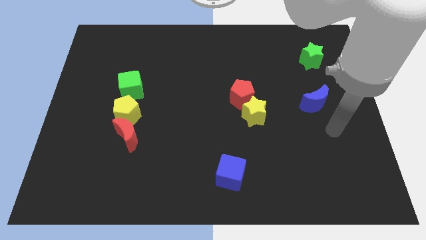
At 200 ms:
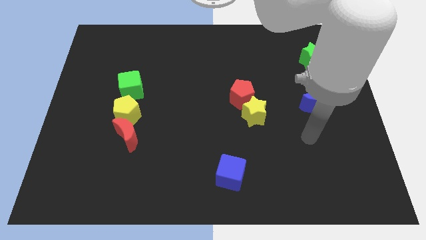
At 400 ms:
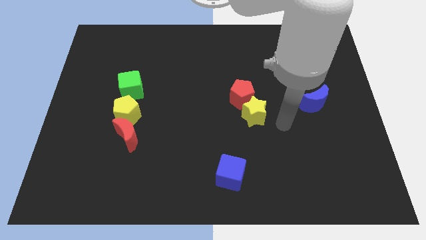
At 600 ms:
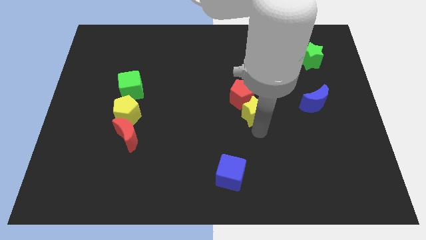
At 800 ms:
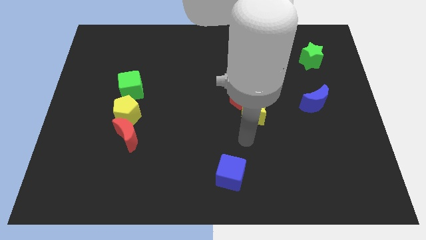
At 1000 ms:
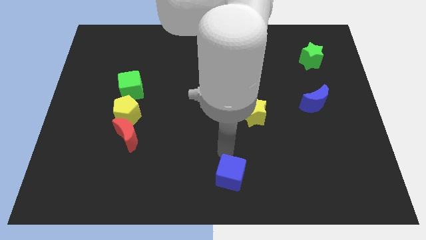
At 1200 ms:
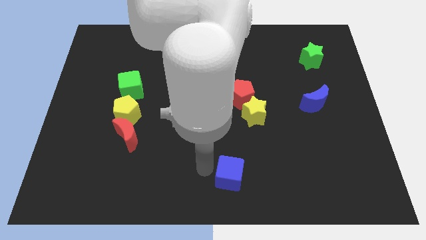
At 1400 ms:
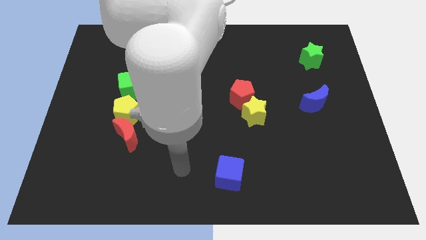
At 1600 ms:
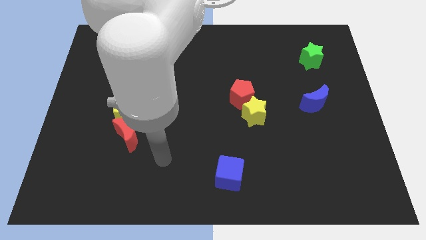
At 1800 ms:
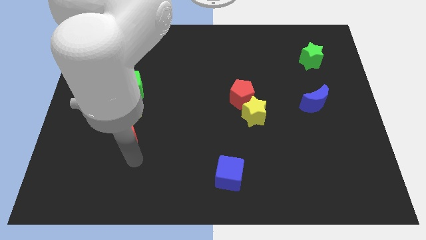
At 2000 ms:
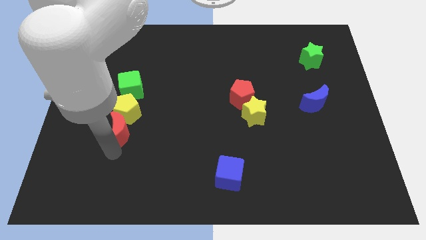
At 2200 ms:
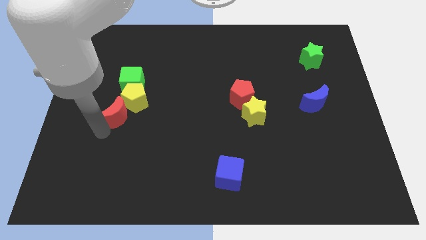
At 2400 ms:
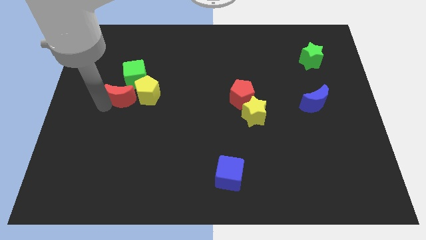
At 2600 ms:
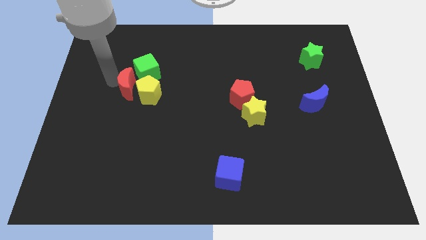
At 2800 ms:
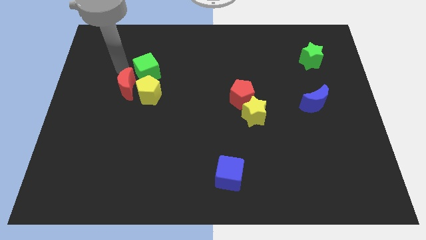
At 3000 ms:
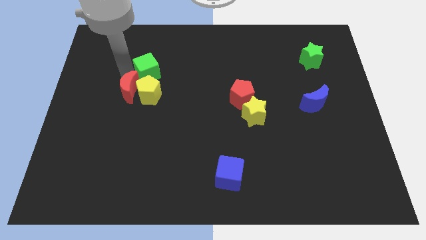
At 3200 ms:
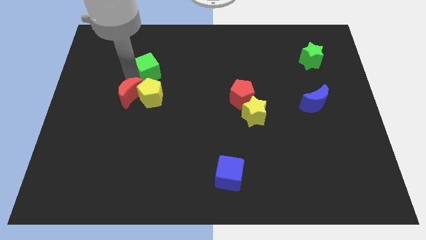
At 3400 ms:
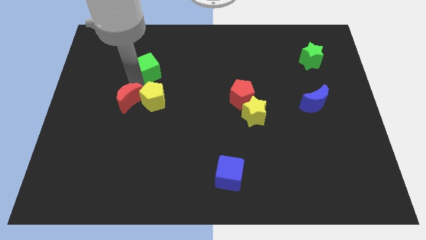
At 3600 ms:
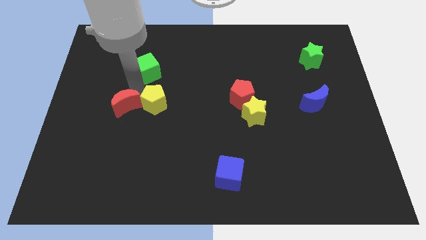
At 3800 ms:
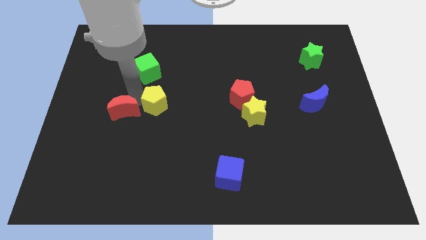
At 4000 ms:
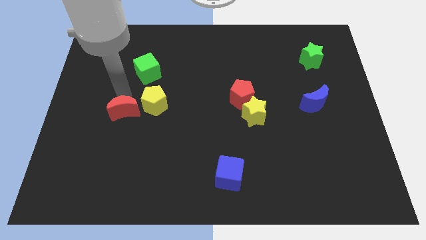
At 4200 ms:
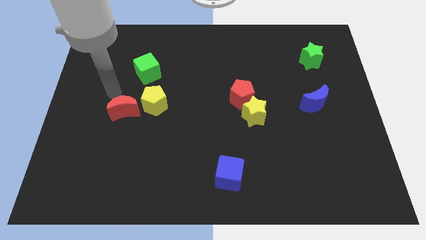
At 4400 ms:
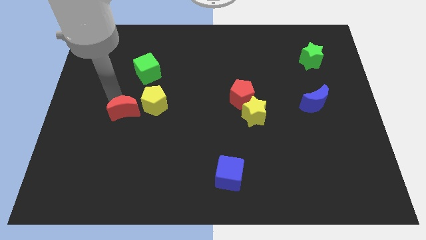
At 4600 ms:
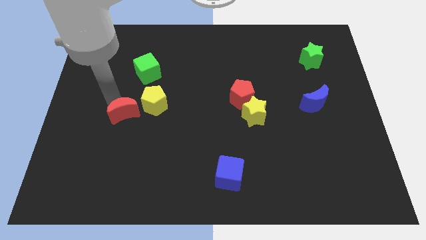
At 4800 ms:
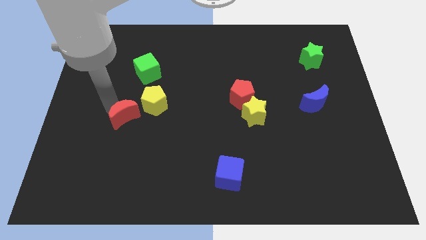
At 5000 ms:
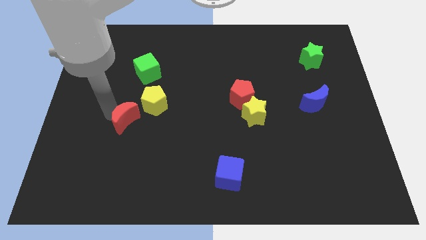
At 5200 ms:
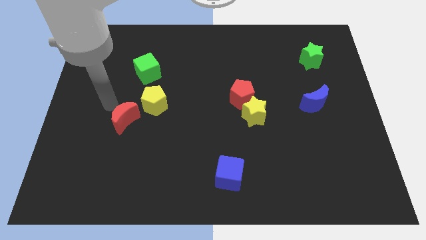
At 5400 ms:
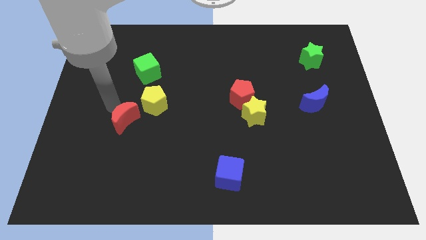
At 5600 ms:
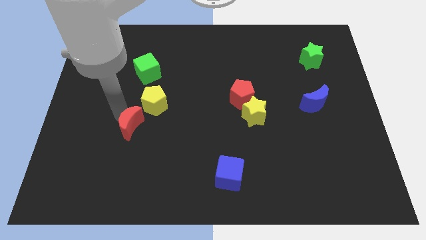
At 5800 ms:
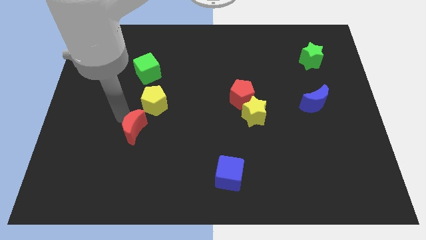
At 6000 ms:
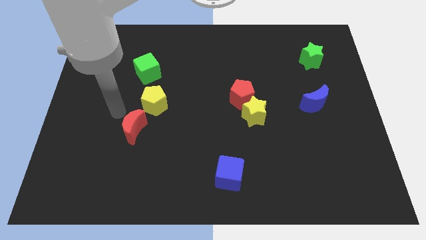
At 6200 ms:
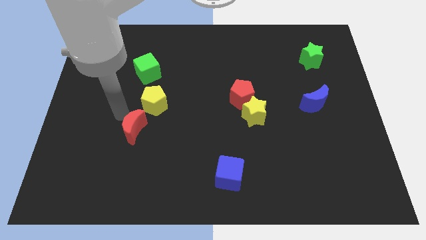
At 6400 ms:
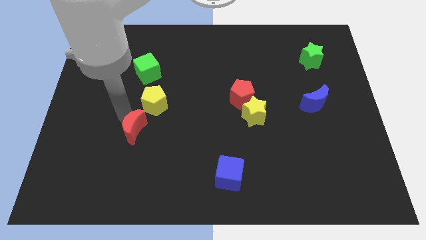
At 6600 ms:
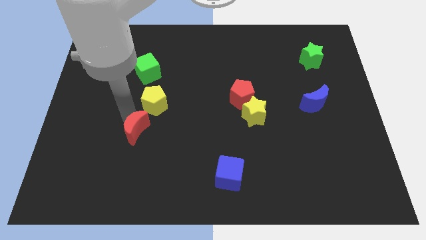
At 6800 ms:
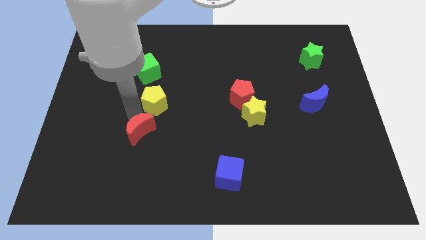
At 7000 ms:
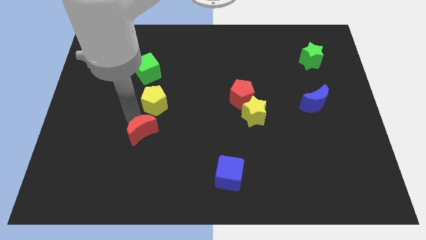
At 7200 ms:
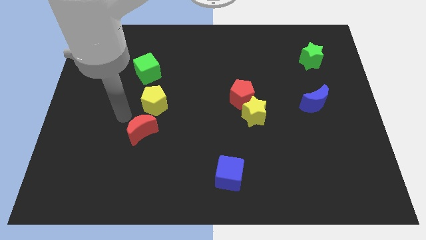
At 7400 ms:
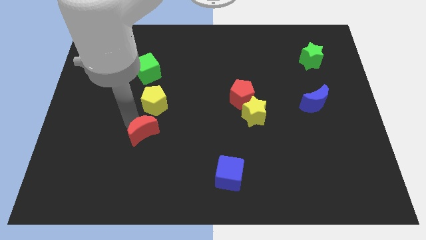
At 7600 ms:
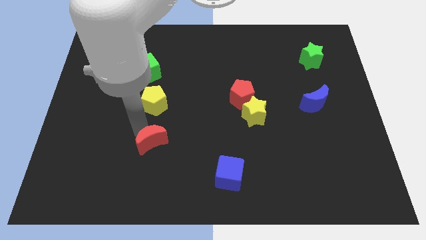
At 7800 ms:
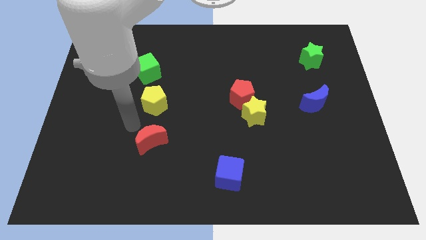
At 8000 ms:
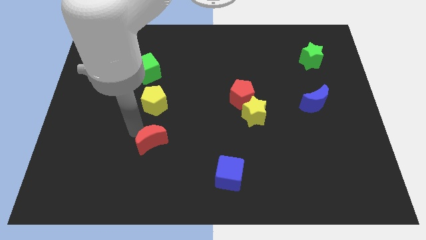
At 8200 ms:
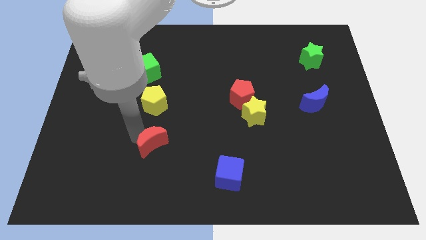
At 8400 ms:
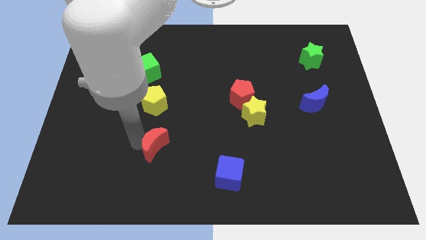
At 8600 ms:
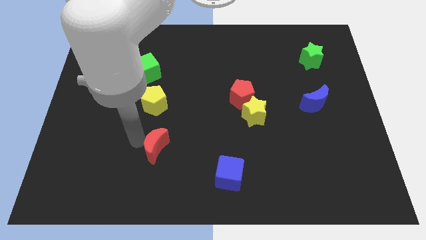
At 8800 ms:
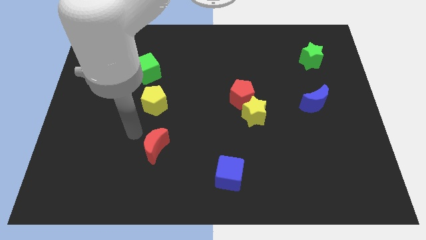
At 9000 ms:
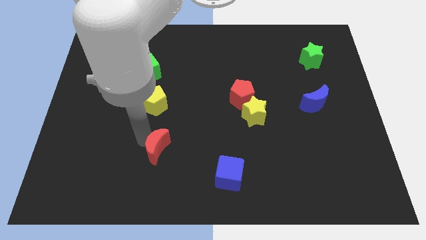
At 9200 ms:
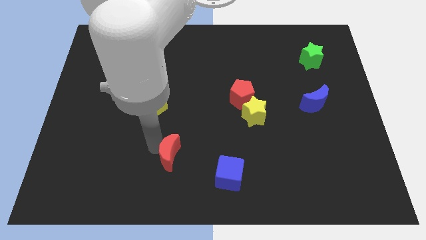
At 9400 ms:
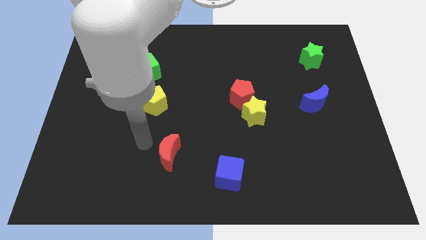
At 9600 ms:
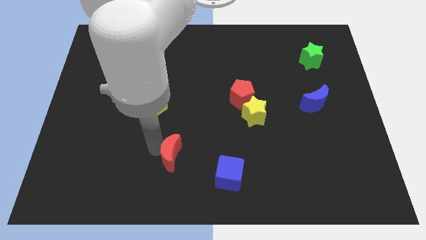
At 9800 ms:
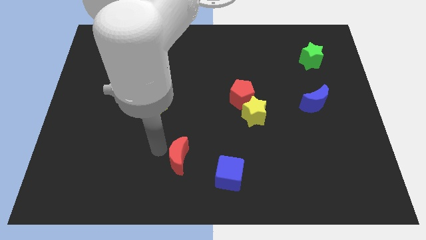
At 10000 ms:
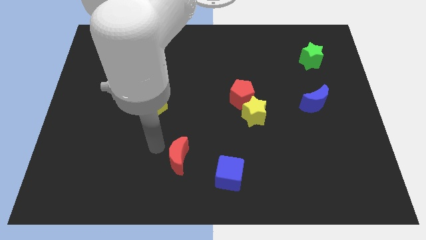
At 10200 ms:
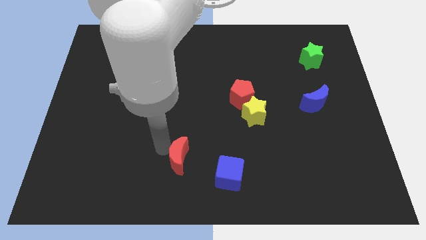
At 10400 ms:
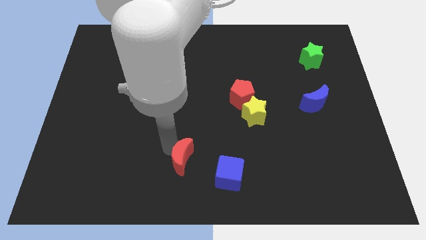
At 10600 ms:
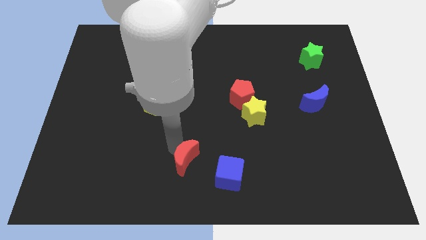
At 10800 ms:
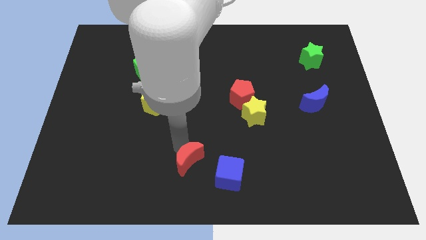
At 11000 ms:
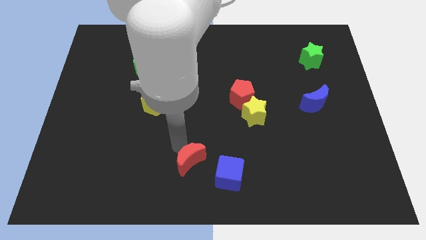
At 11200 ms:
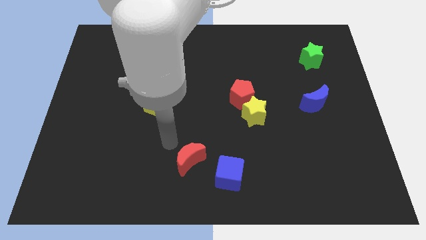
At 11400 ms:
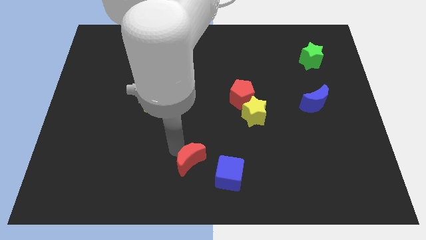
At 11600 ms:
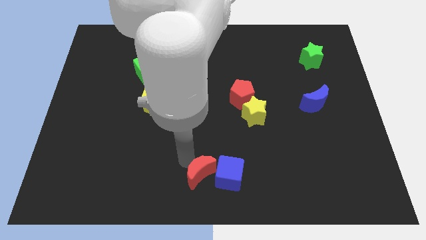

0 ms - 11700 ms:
move the red moon next to the blue cube

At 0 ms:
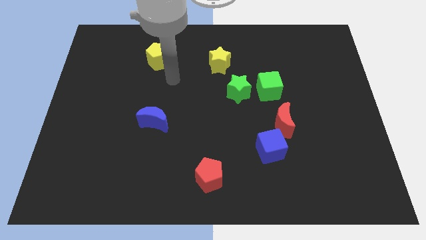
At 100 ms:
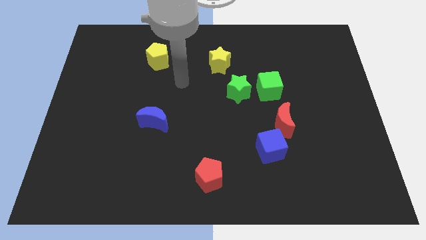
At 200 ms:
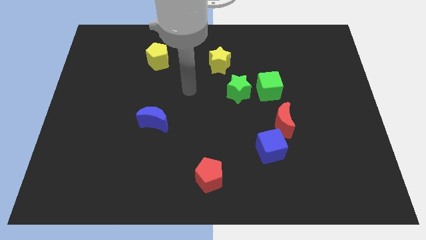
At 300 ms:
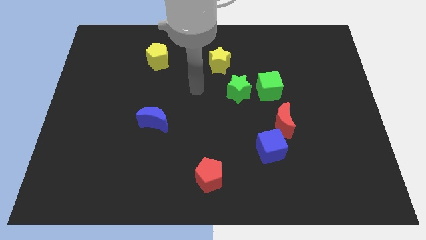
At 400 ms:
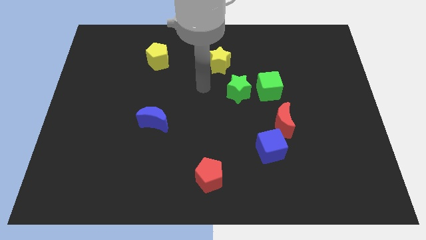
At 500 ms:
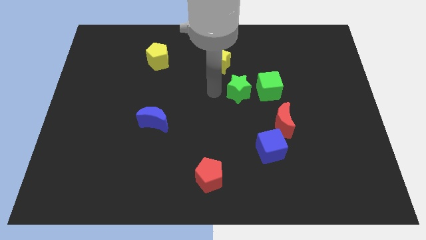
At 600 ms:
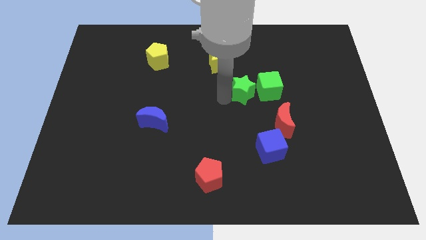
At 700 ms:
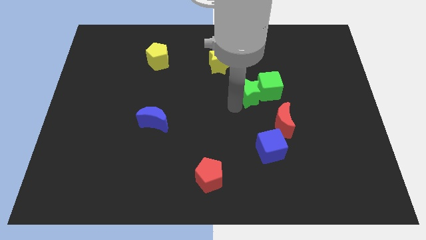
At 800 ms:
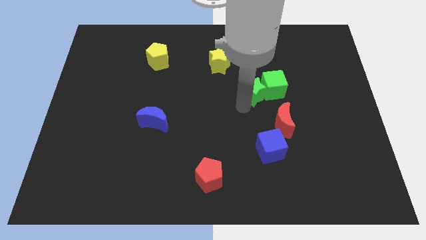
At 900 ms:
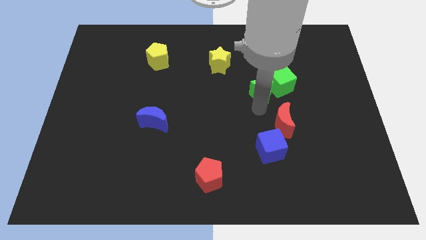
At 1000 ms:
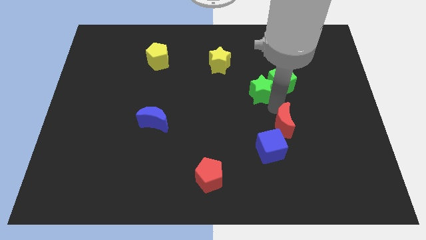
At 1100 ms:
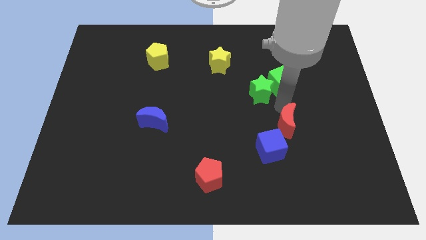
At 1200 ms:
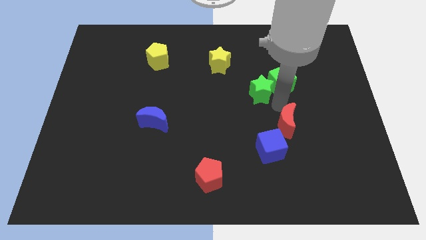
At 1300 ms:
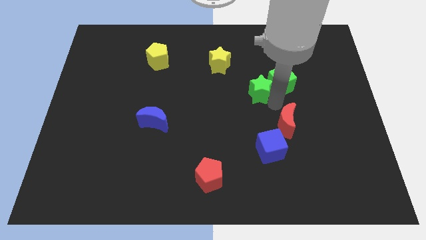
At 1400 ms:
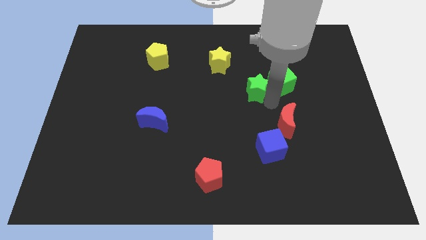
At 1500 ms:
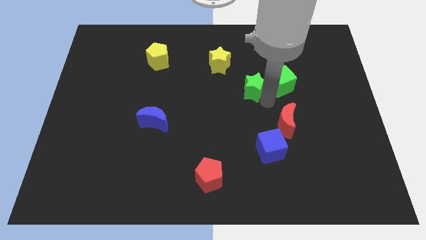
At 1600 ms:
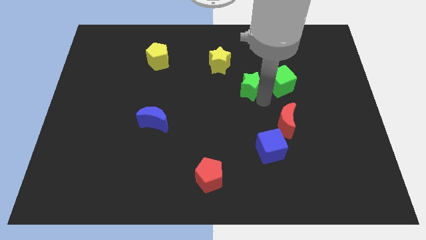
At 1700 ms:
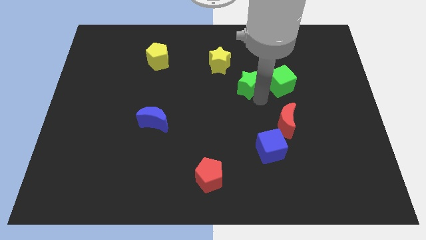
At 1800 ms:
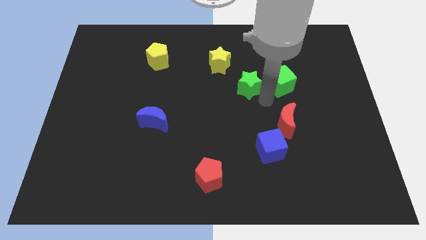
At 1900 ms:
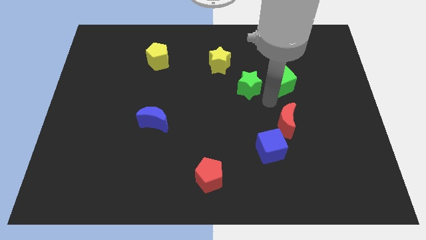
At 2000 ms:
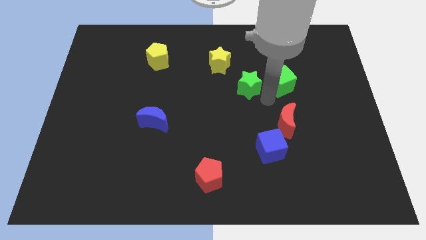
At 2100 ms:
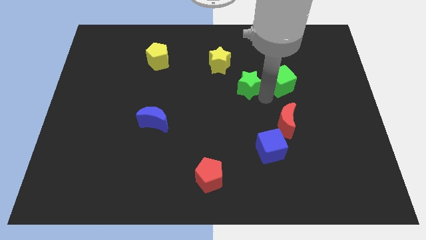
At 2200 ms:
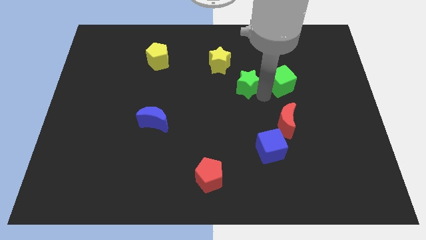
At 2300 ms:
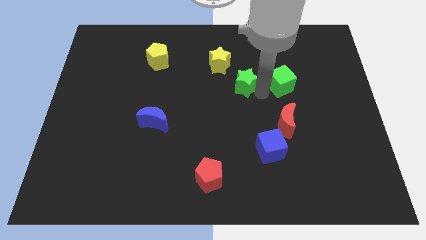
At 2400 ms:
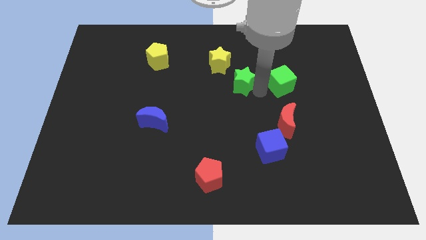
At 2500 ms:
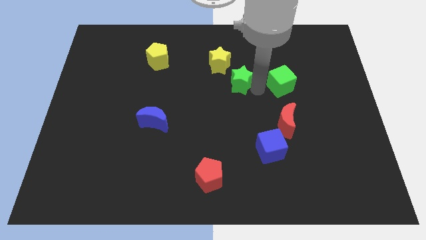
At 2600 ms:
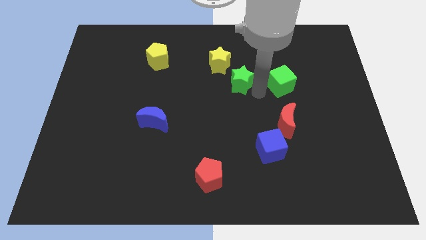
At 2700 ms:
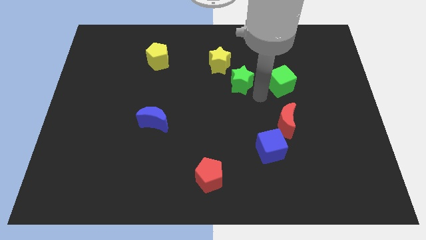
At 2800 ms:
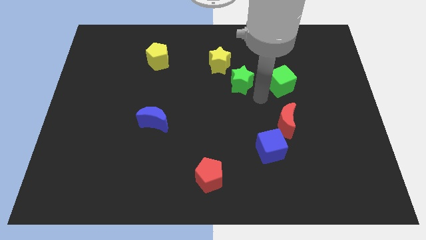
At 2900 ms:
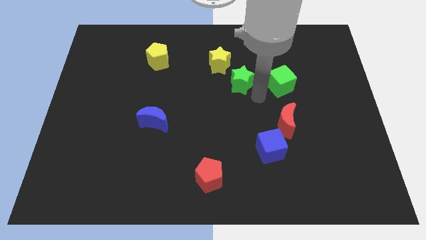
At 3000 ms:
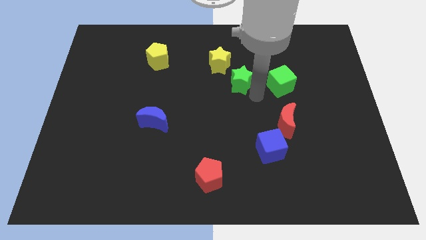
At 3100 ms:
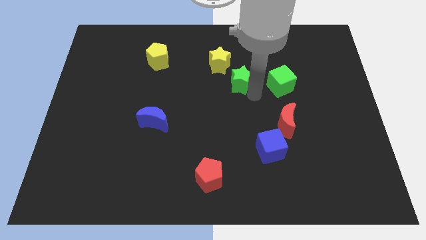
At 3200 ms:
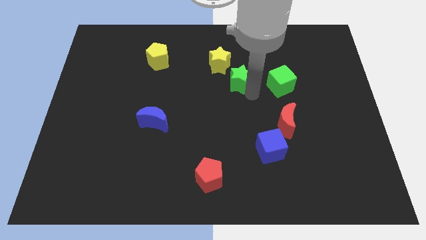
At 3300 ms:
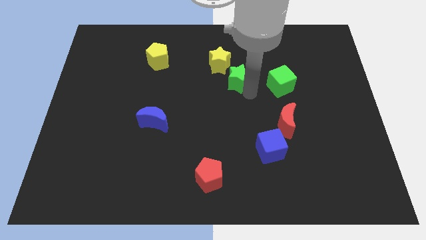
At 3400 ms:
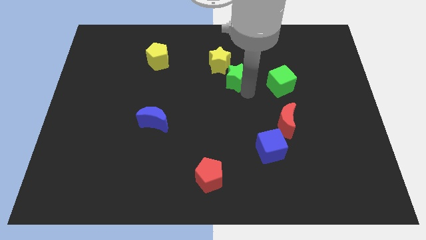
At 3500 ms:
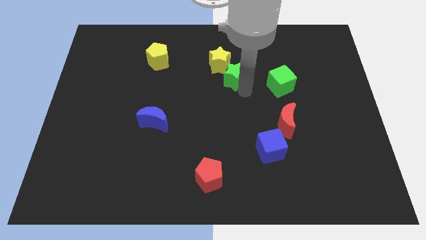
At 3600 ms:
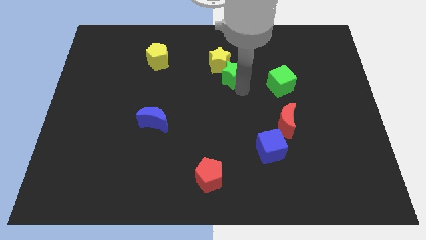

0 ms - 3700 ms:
move the green star to the yellow star
